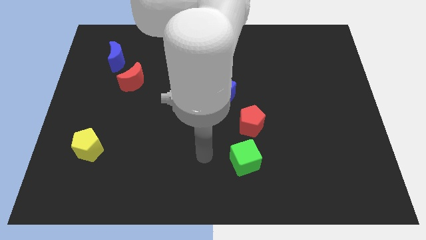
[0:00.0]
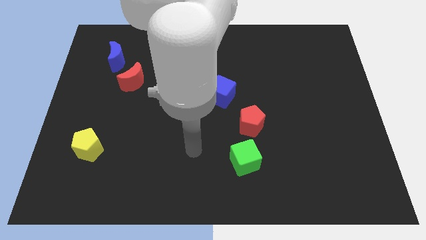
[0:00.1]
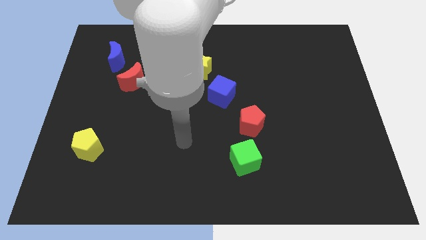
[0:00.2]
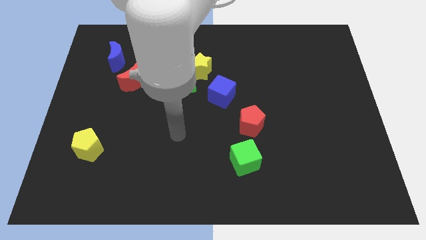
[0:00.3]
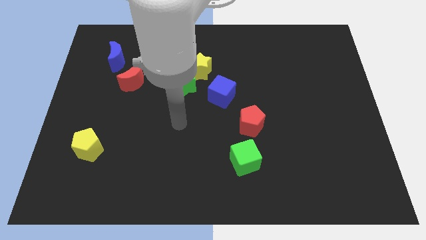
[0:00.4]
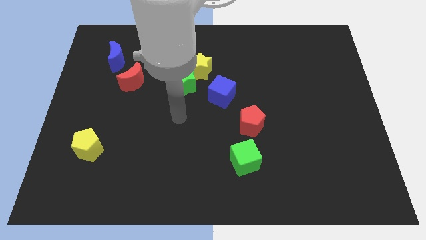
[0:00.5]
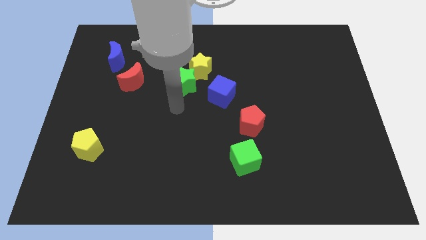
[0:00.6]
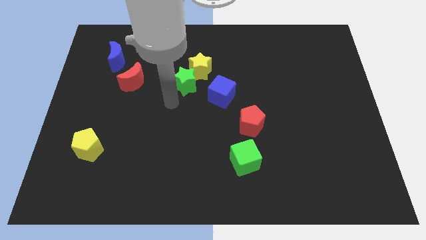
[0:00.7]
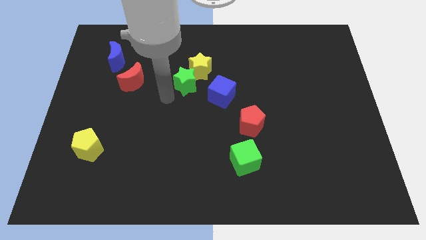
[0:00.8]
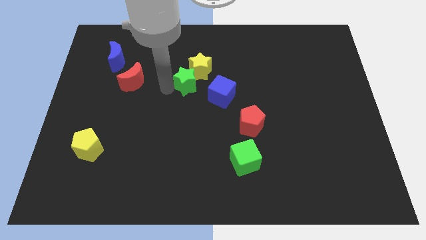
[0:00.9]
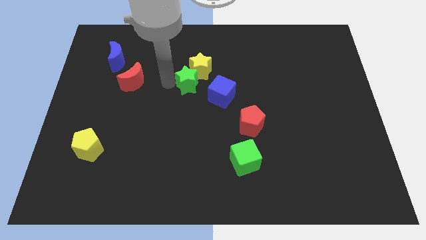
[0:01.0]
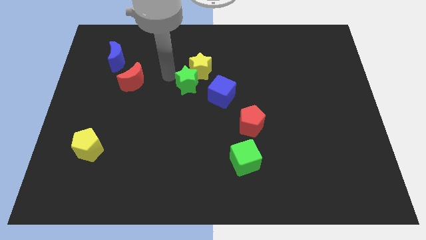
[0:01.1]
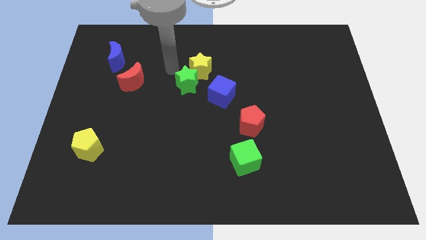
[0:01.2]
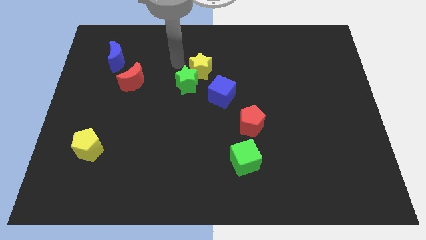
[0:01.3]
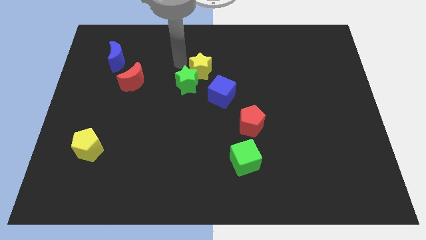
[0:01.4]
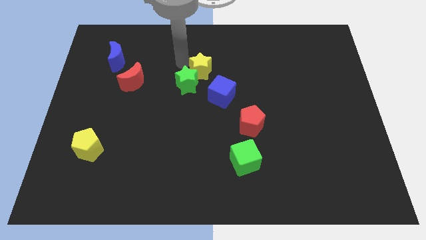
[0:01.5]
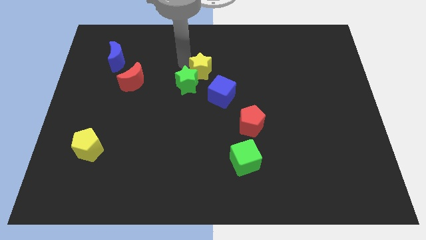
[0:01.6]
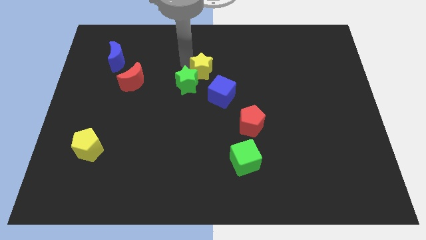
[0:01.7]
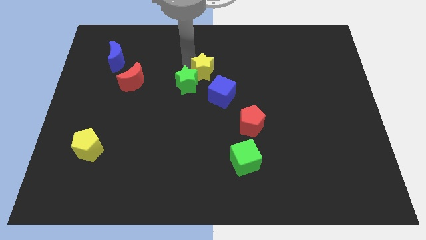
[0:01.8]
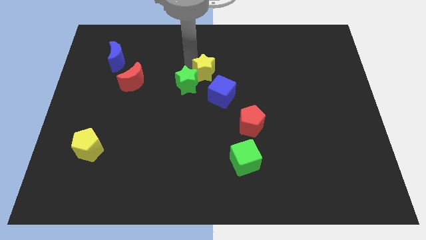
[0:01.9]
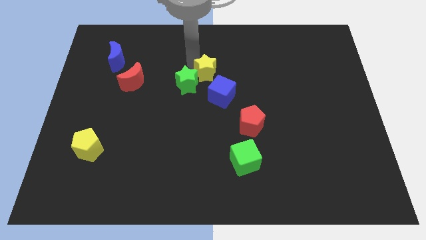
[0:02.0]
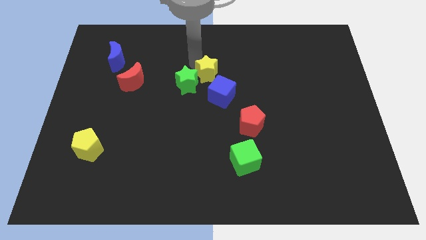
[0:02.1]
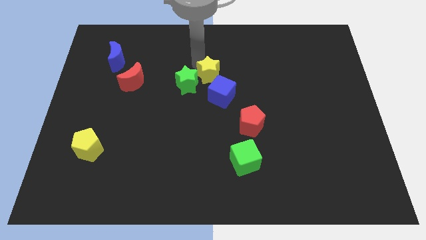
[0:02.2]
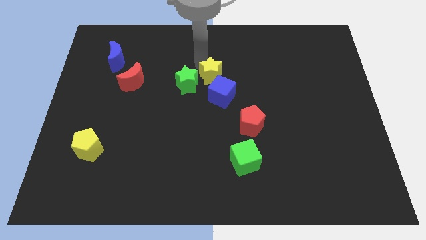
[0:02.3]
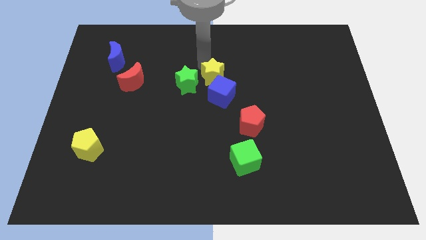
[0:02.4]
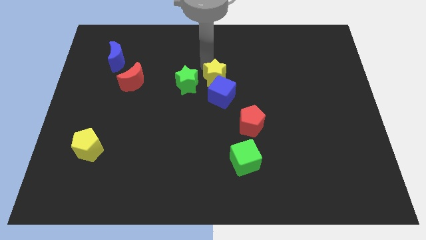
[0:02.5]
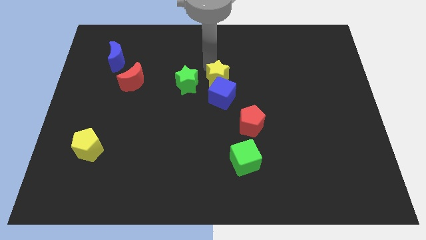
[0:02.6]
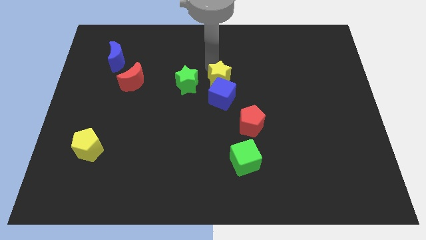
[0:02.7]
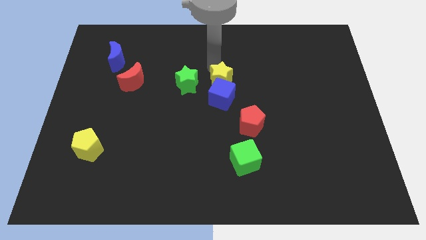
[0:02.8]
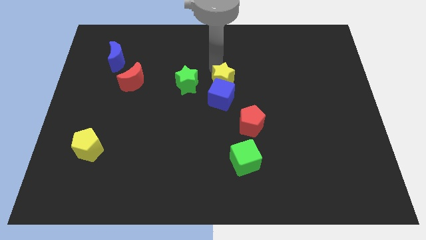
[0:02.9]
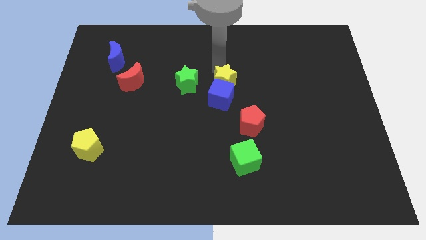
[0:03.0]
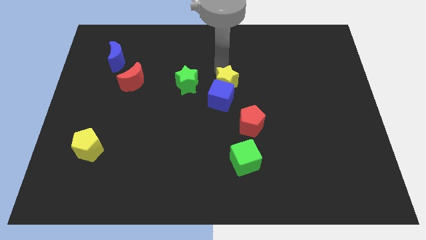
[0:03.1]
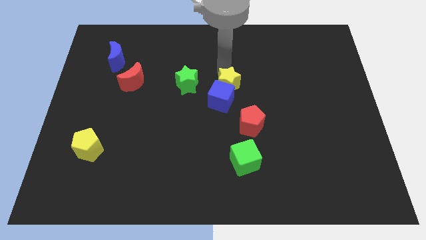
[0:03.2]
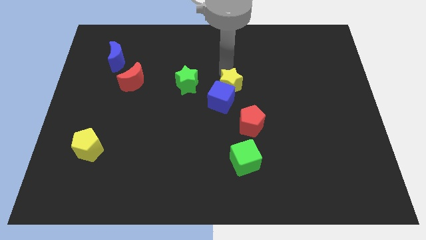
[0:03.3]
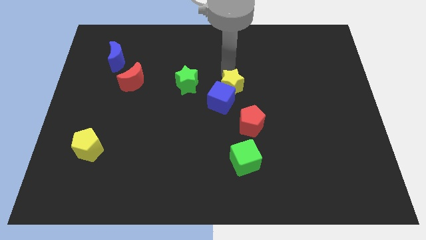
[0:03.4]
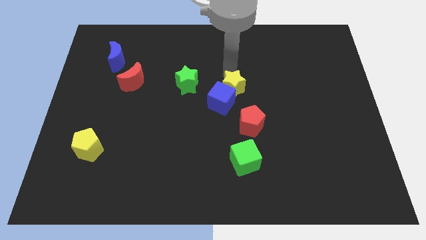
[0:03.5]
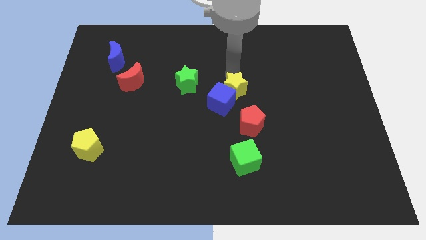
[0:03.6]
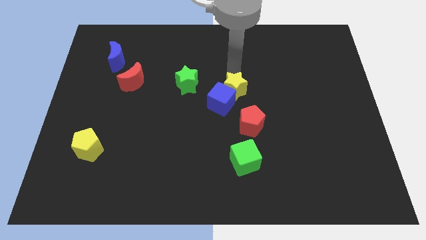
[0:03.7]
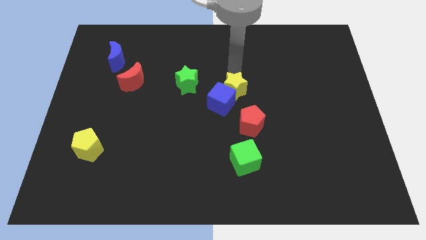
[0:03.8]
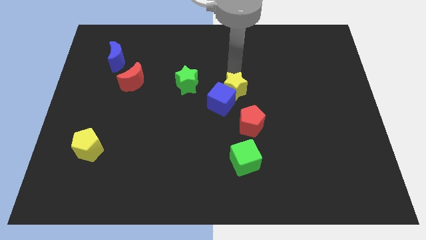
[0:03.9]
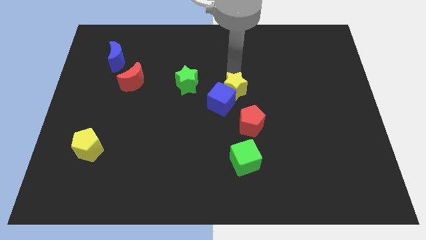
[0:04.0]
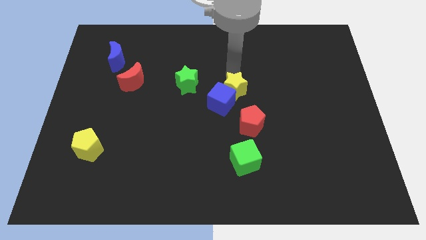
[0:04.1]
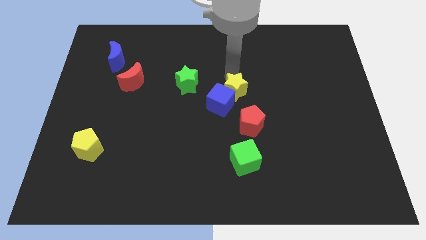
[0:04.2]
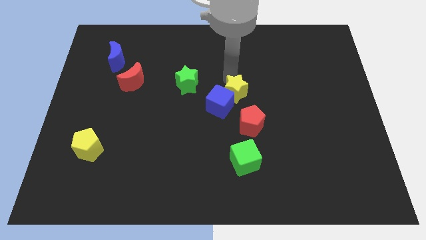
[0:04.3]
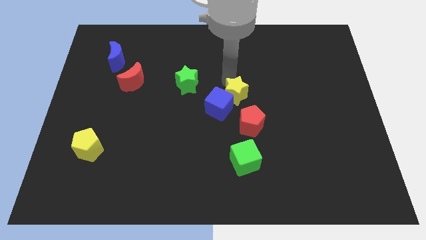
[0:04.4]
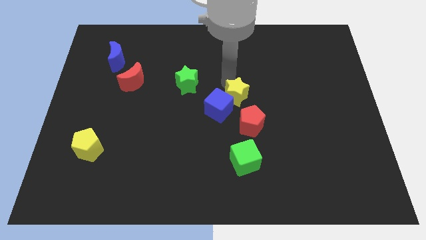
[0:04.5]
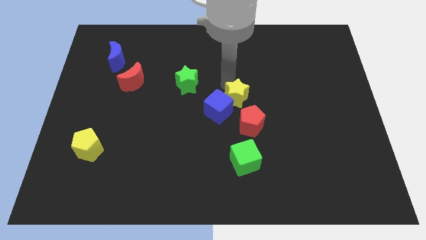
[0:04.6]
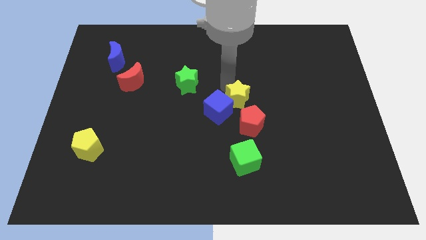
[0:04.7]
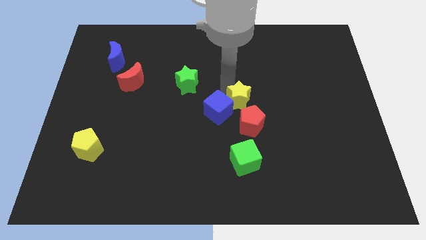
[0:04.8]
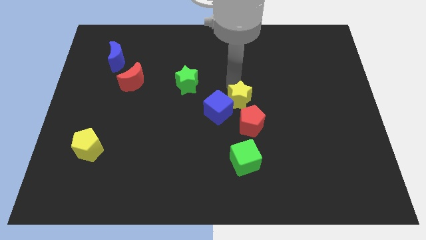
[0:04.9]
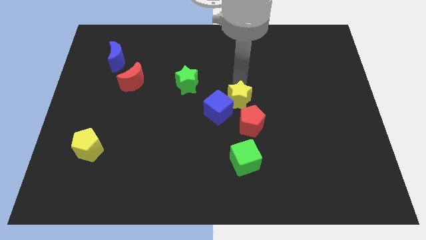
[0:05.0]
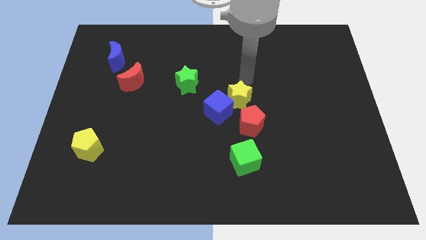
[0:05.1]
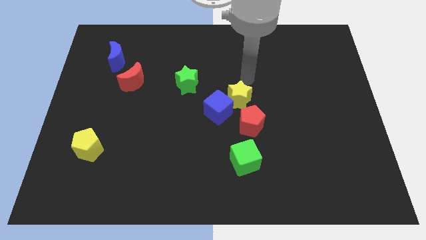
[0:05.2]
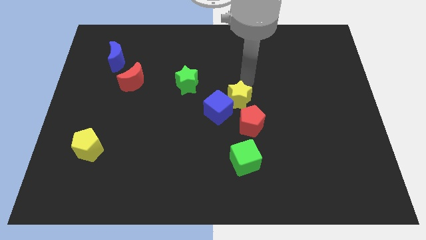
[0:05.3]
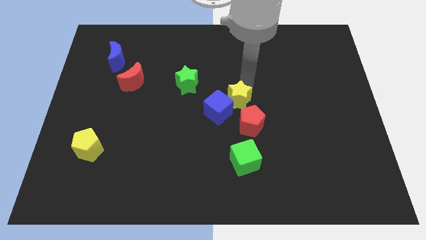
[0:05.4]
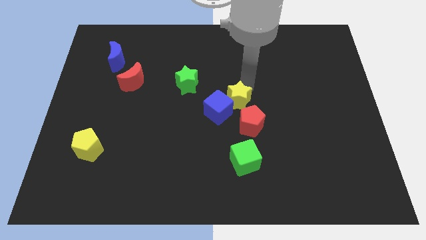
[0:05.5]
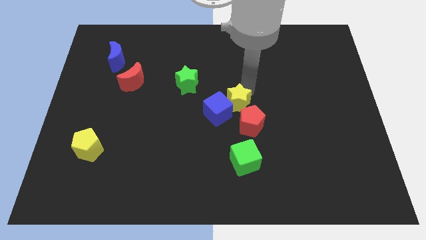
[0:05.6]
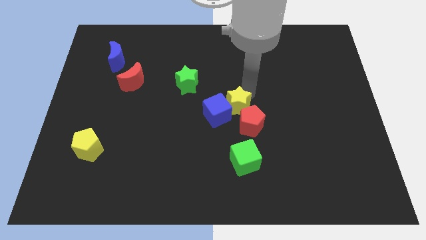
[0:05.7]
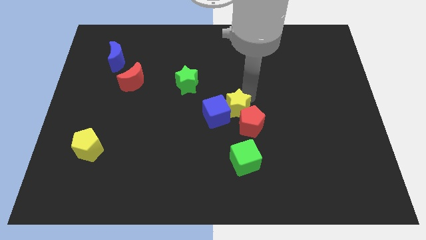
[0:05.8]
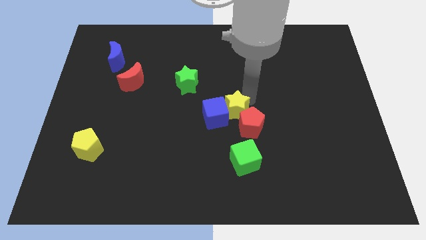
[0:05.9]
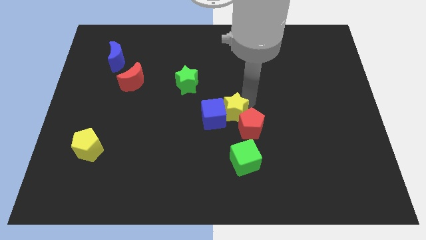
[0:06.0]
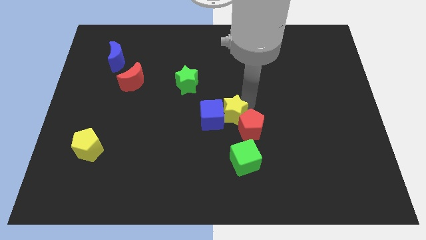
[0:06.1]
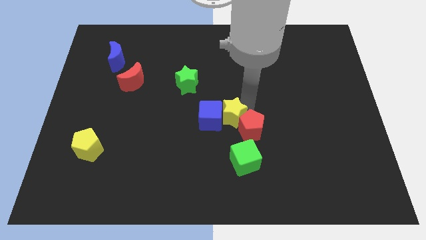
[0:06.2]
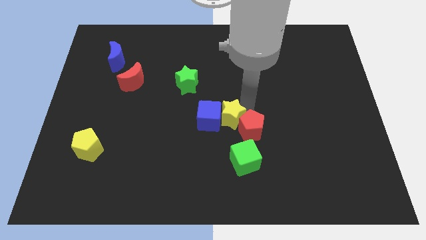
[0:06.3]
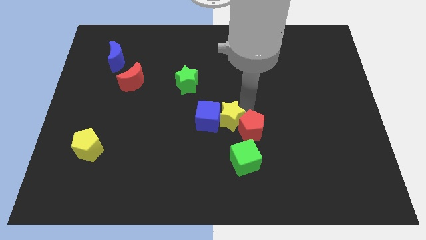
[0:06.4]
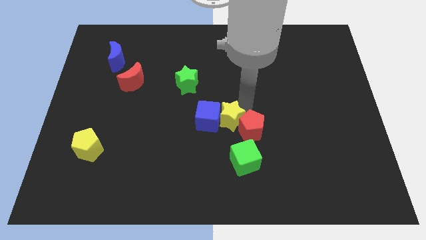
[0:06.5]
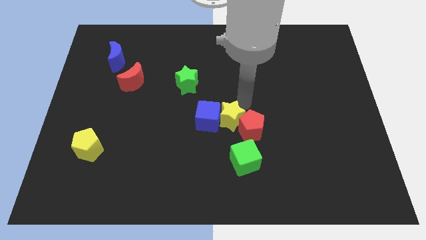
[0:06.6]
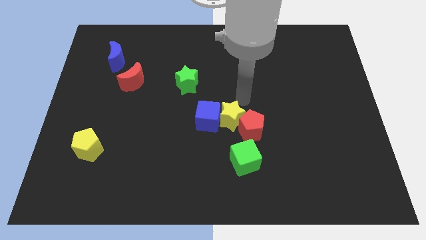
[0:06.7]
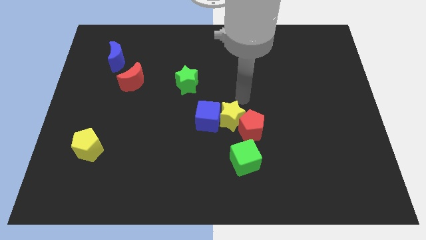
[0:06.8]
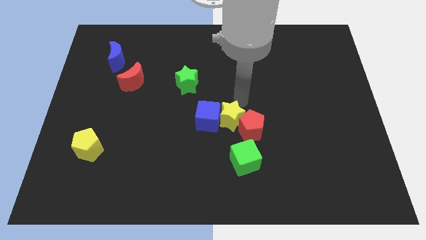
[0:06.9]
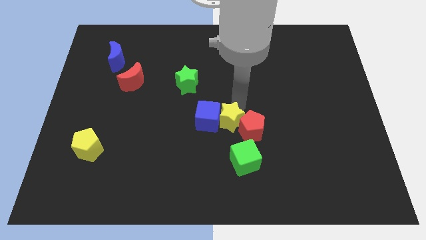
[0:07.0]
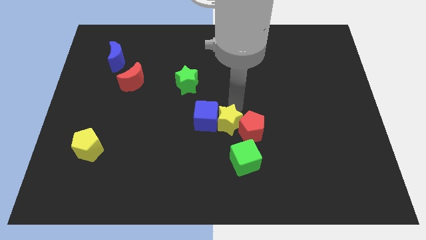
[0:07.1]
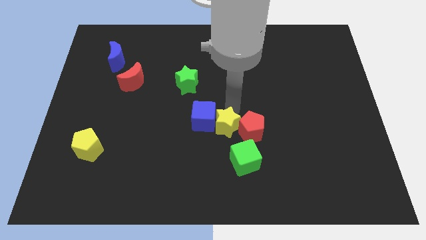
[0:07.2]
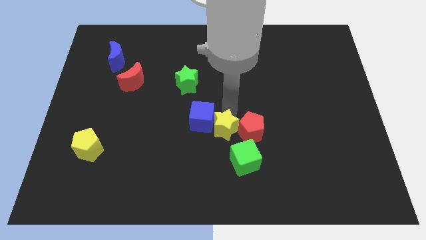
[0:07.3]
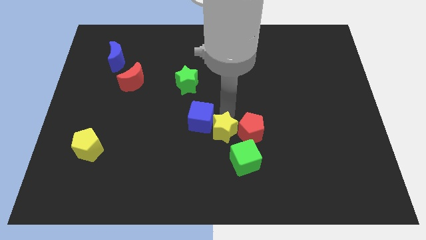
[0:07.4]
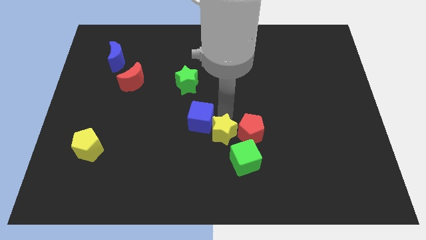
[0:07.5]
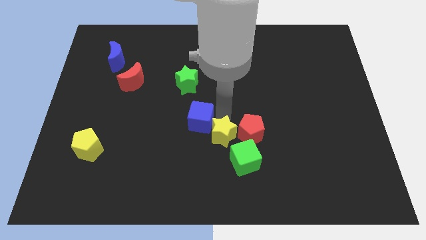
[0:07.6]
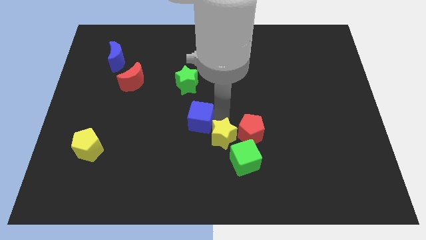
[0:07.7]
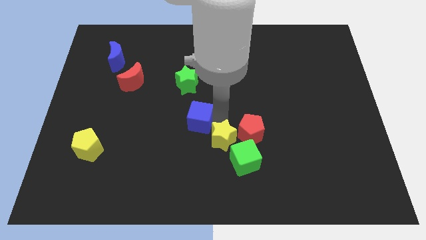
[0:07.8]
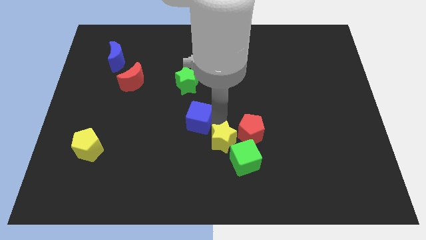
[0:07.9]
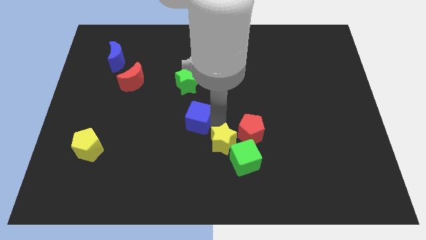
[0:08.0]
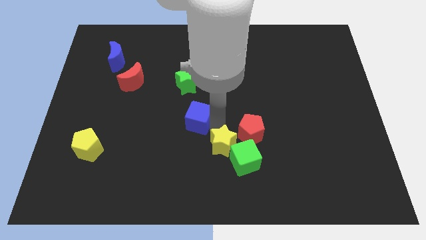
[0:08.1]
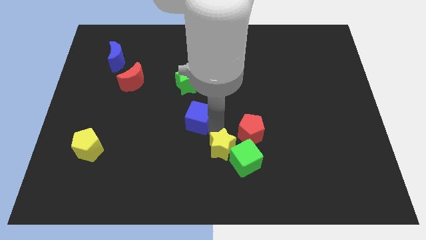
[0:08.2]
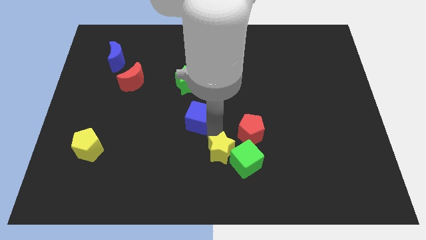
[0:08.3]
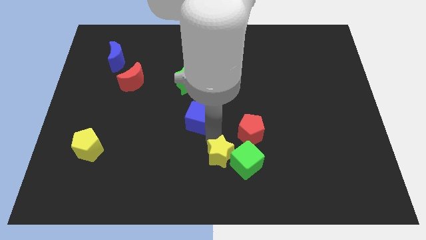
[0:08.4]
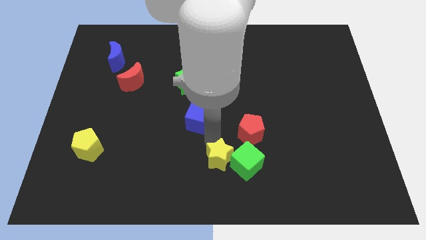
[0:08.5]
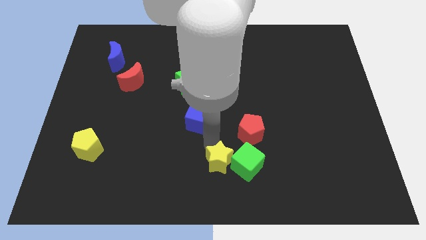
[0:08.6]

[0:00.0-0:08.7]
put the yellow star to the bottom left side of the green cube
